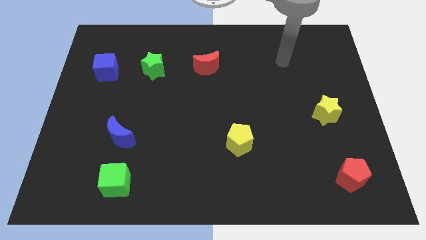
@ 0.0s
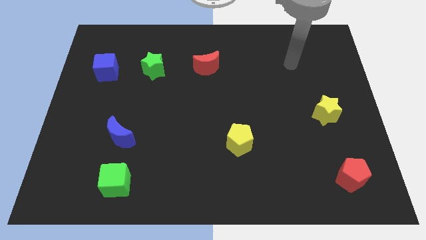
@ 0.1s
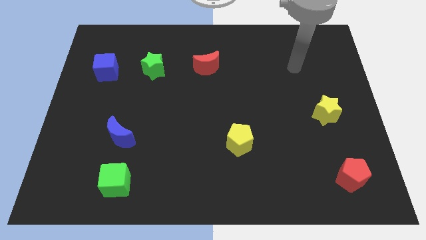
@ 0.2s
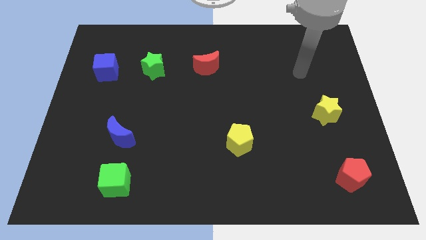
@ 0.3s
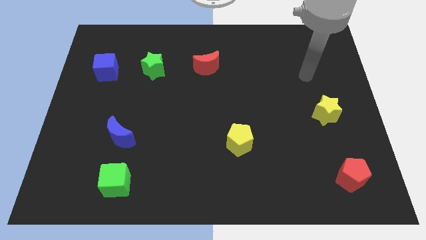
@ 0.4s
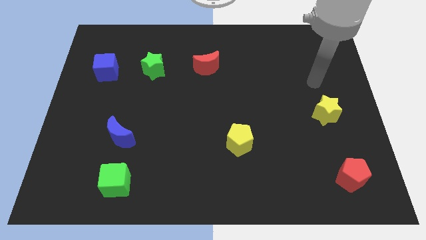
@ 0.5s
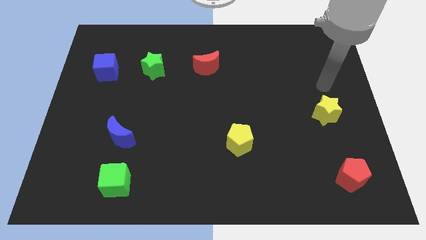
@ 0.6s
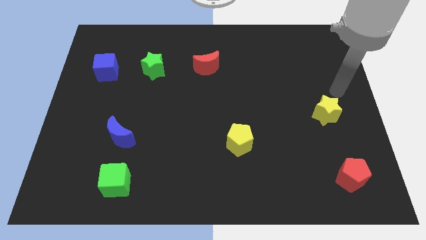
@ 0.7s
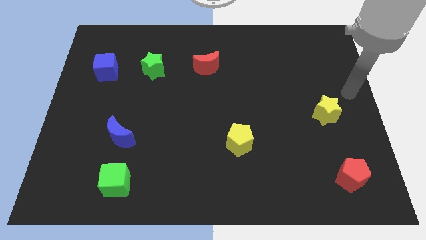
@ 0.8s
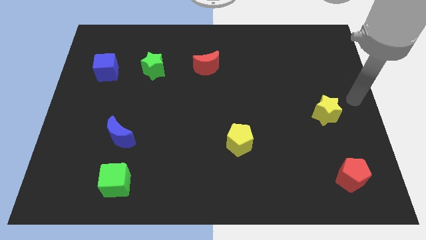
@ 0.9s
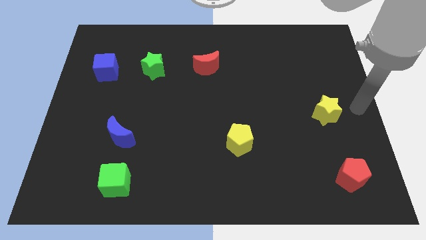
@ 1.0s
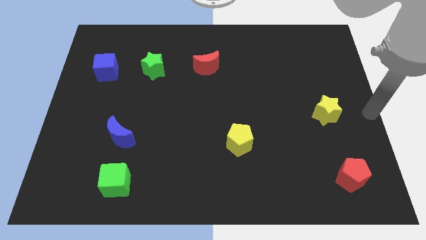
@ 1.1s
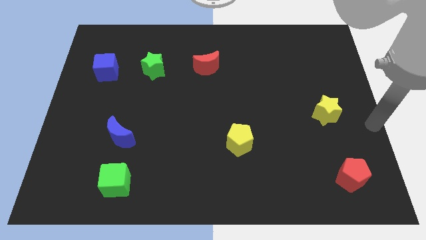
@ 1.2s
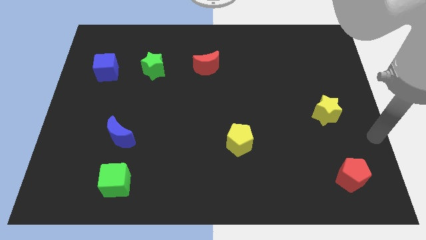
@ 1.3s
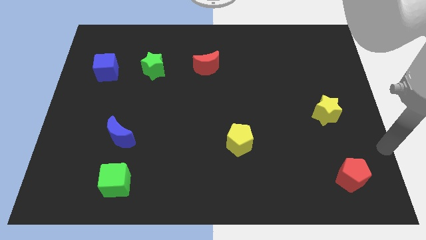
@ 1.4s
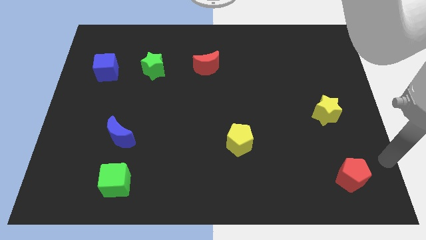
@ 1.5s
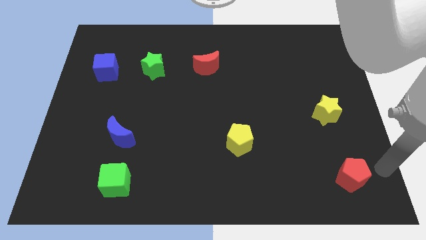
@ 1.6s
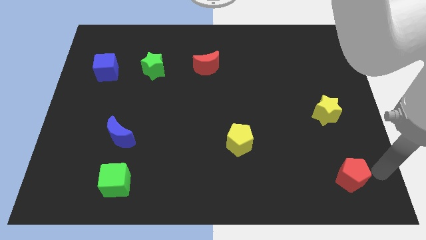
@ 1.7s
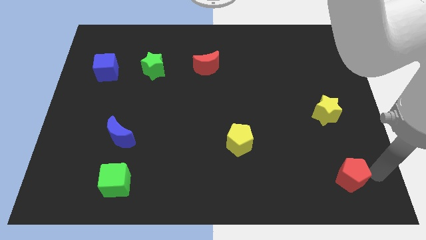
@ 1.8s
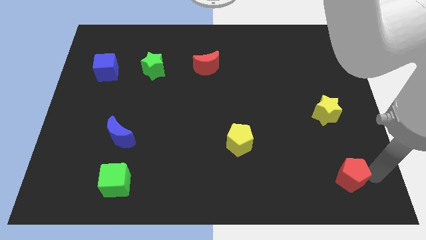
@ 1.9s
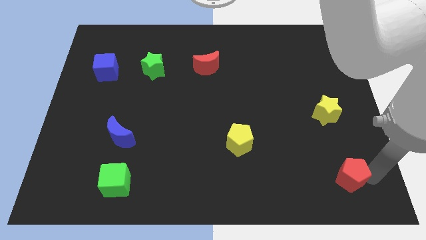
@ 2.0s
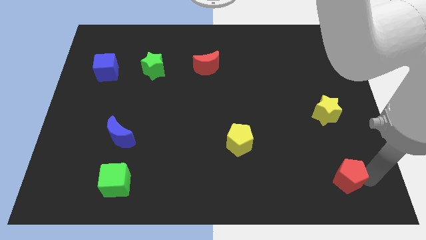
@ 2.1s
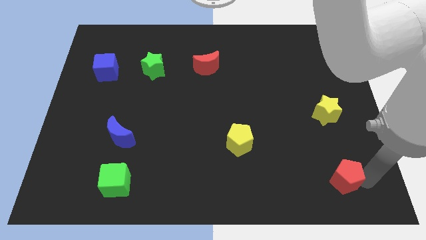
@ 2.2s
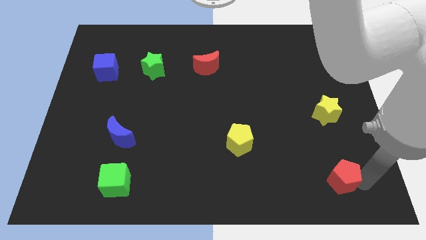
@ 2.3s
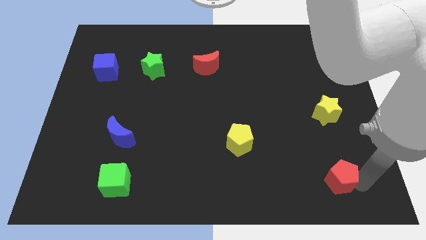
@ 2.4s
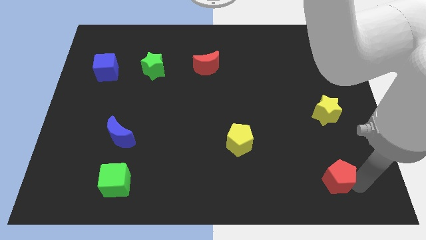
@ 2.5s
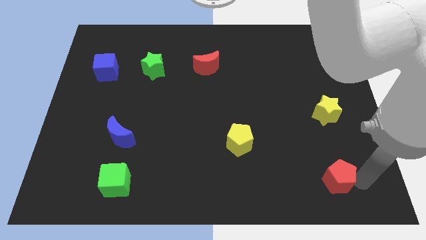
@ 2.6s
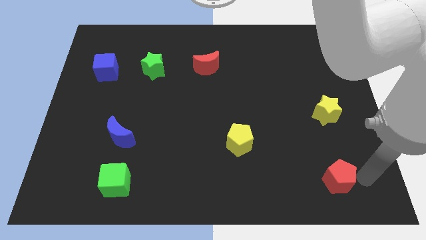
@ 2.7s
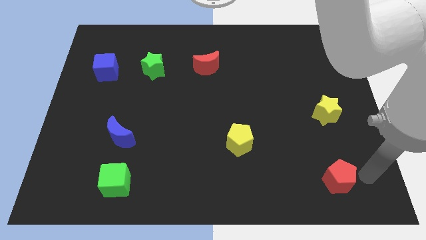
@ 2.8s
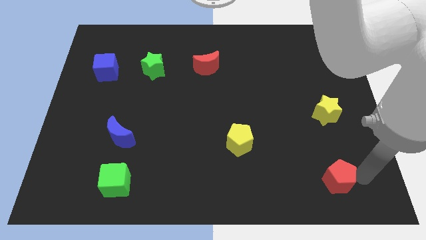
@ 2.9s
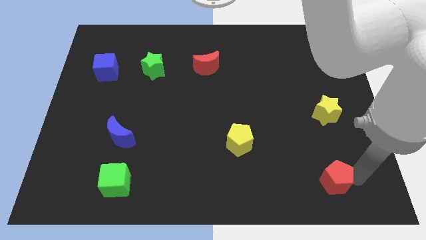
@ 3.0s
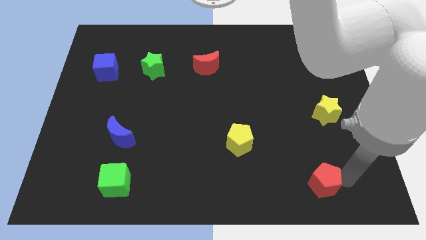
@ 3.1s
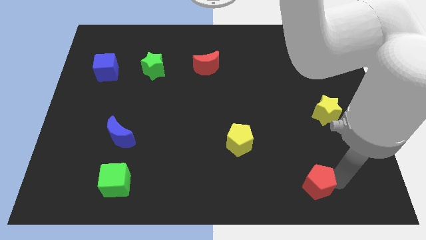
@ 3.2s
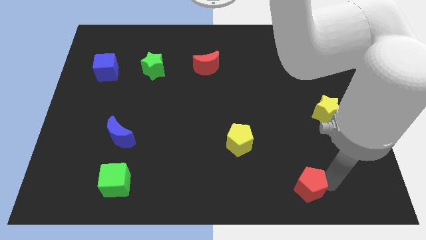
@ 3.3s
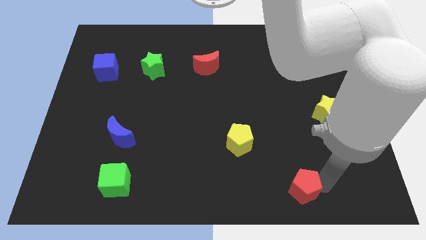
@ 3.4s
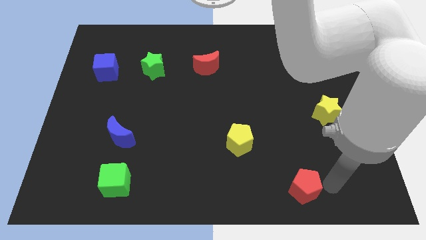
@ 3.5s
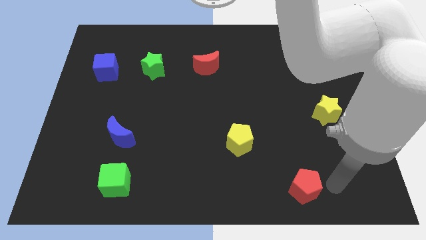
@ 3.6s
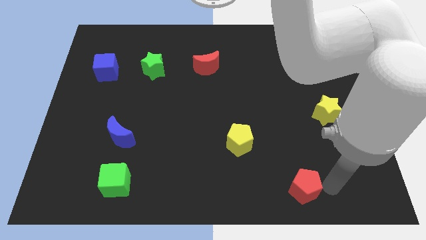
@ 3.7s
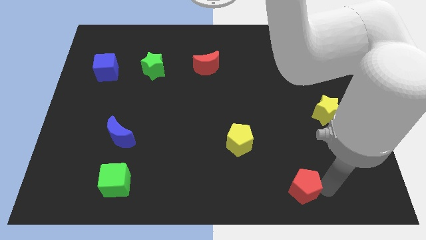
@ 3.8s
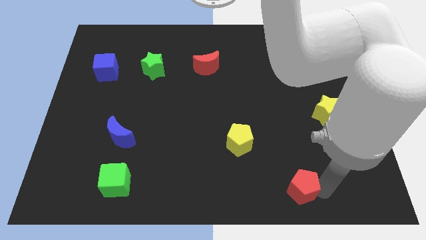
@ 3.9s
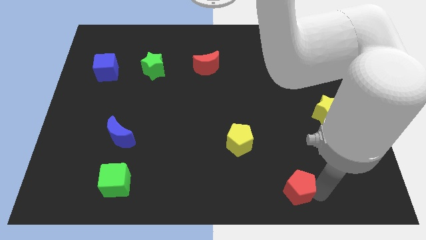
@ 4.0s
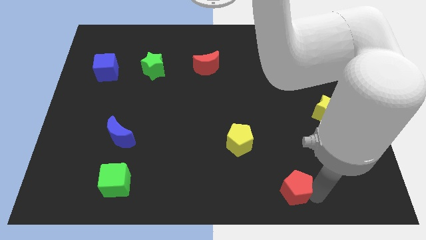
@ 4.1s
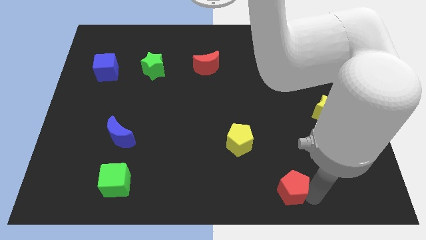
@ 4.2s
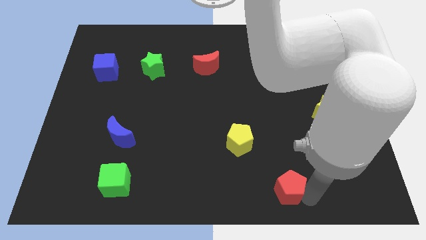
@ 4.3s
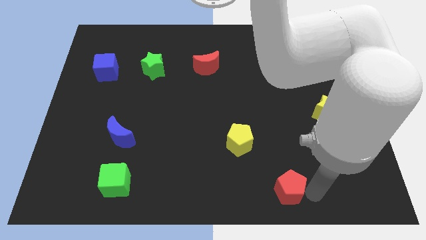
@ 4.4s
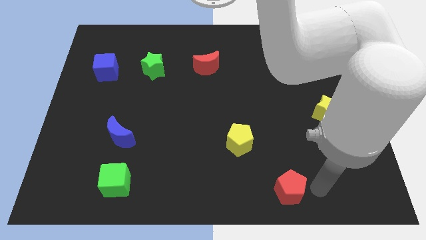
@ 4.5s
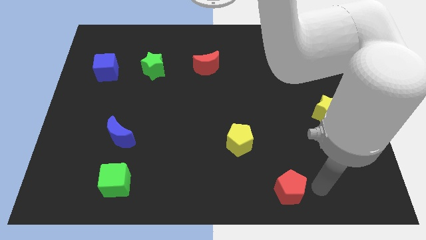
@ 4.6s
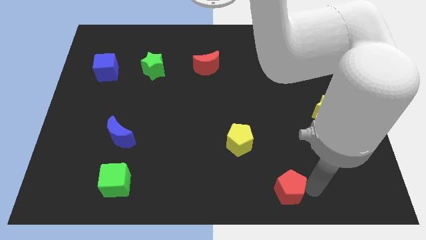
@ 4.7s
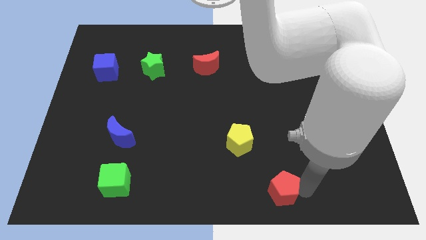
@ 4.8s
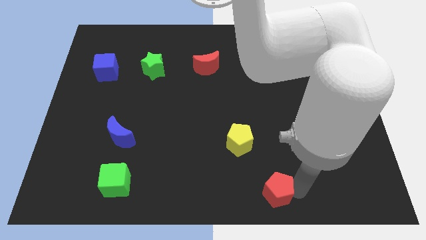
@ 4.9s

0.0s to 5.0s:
put the red pentagon to the bottom
